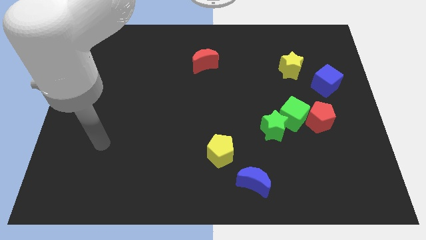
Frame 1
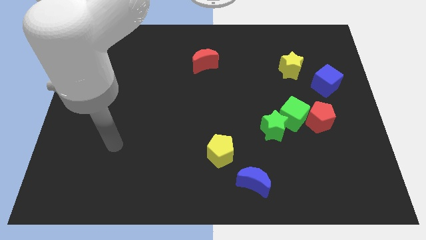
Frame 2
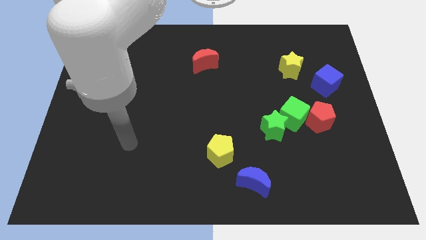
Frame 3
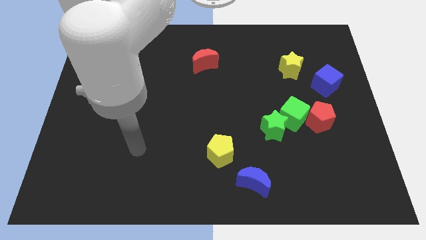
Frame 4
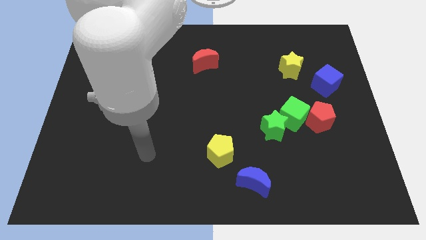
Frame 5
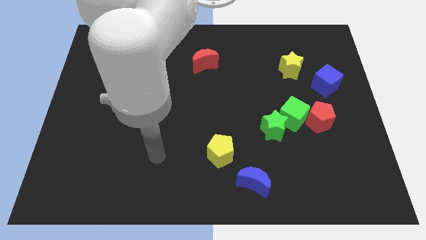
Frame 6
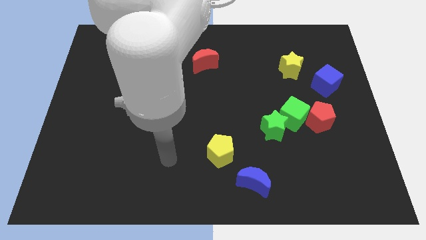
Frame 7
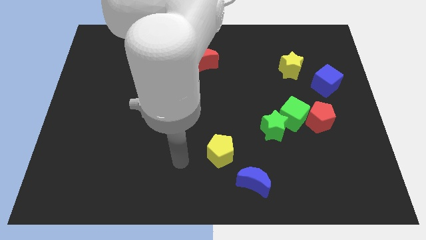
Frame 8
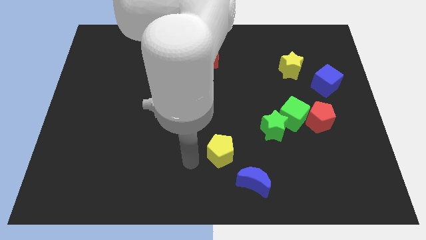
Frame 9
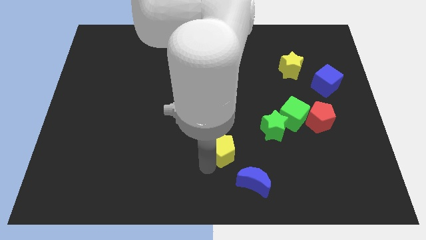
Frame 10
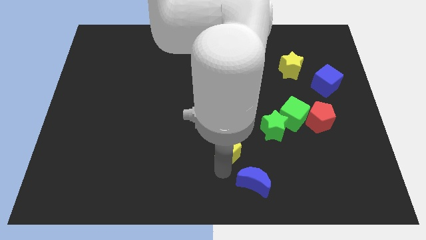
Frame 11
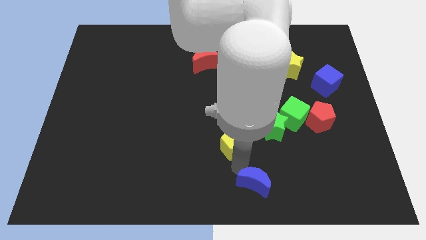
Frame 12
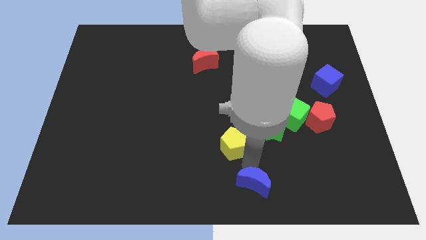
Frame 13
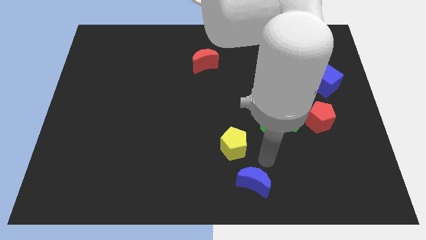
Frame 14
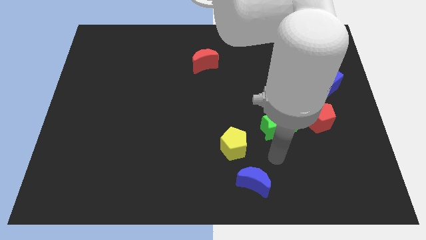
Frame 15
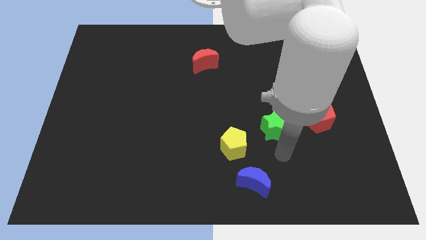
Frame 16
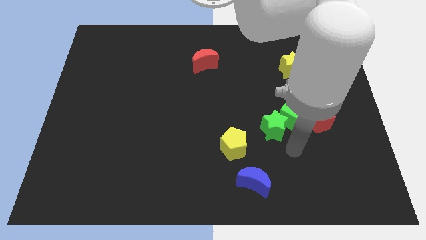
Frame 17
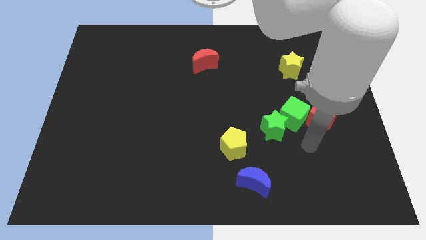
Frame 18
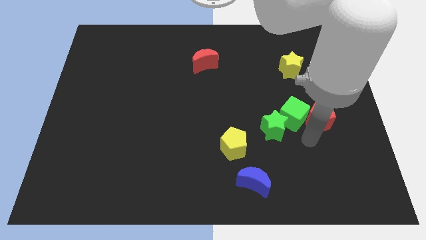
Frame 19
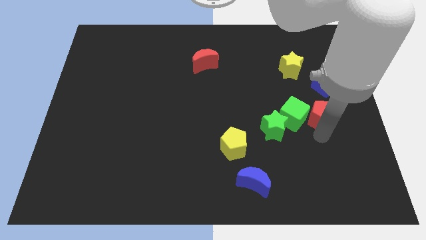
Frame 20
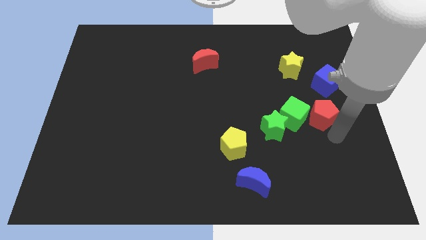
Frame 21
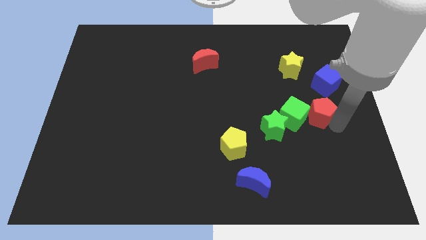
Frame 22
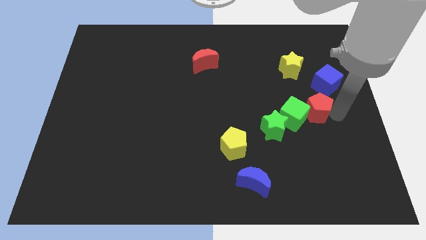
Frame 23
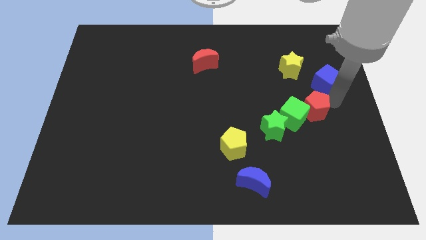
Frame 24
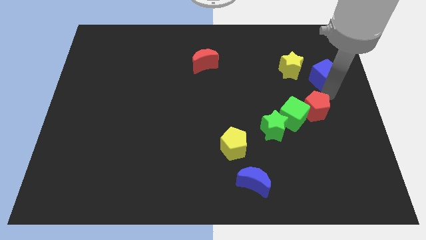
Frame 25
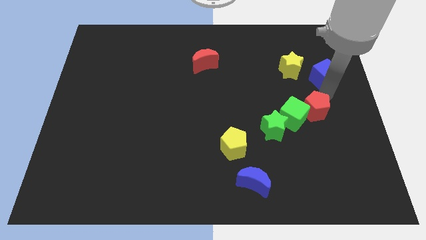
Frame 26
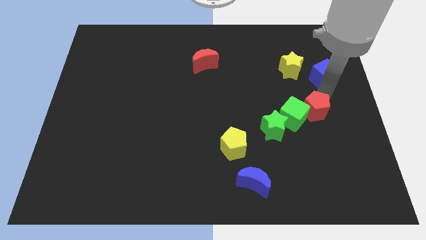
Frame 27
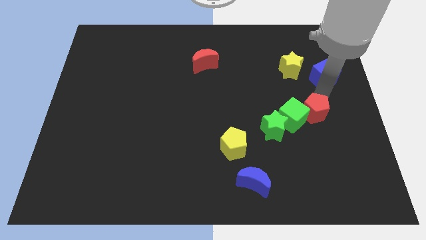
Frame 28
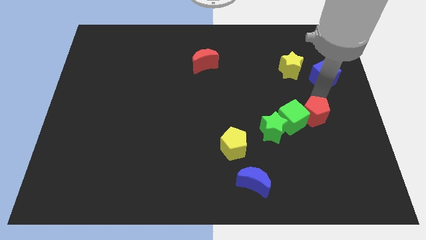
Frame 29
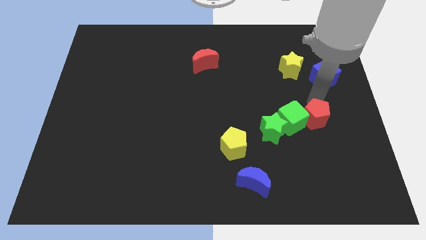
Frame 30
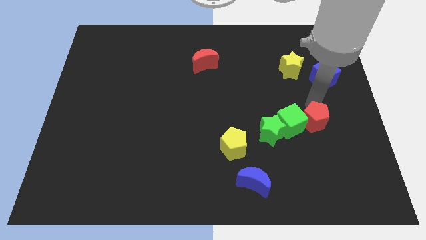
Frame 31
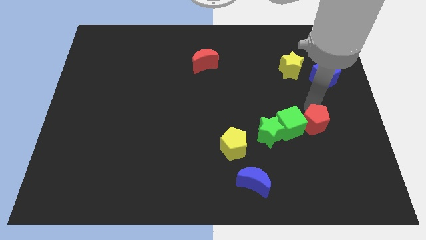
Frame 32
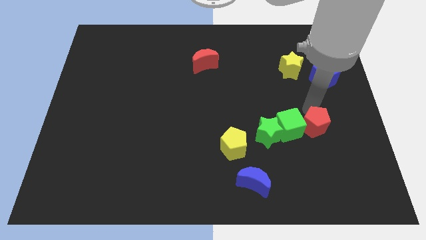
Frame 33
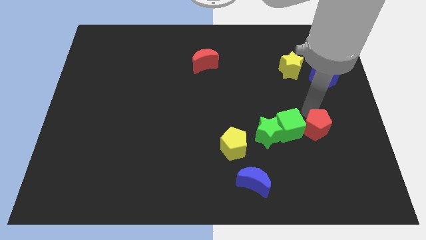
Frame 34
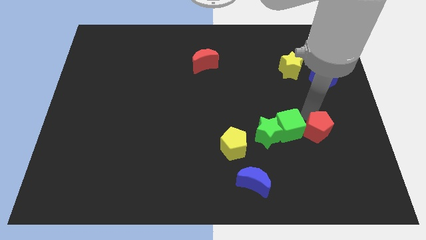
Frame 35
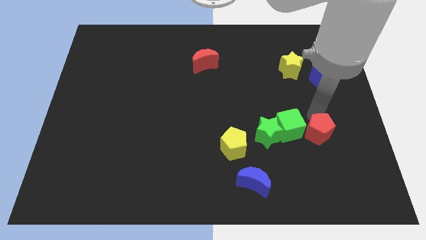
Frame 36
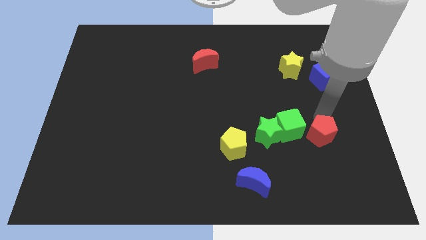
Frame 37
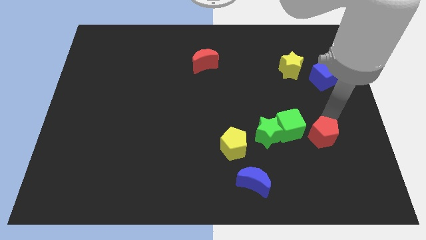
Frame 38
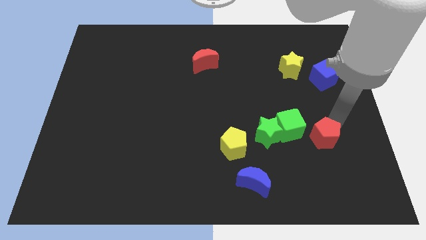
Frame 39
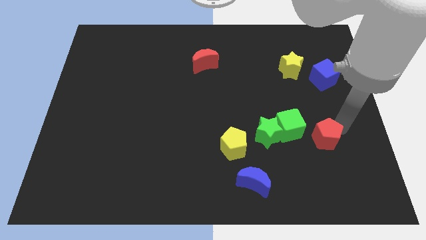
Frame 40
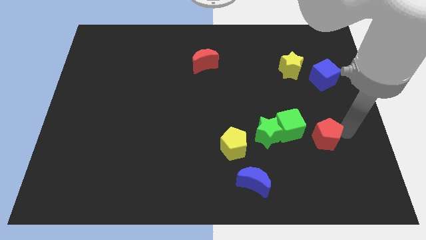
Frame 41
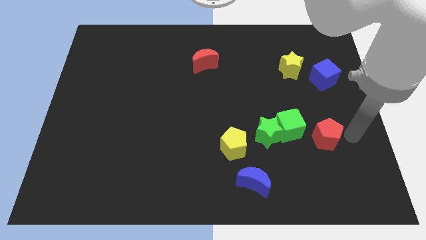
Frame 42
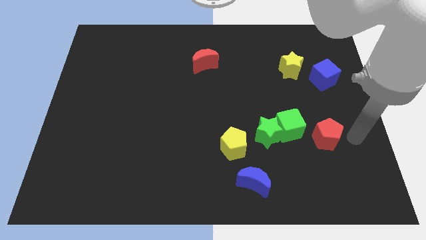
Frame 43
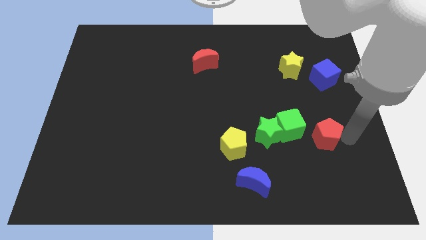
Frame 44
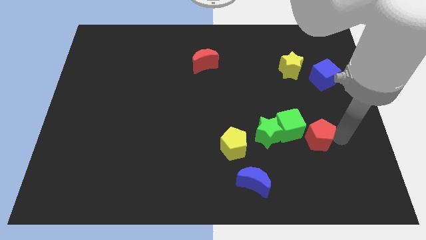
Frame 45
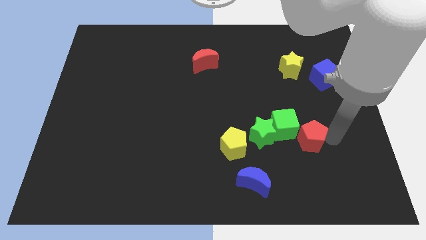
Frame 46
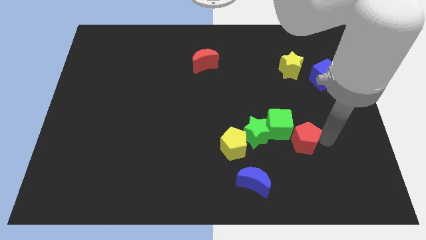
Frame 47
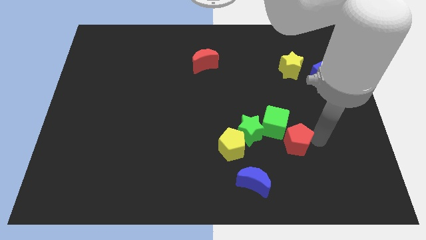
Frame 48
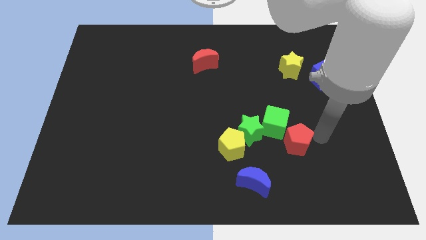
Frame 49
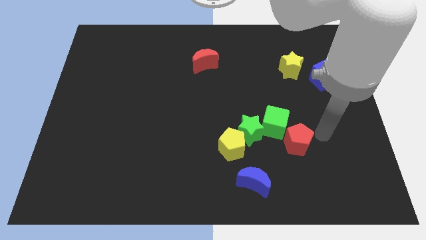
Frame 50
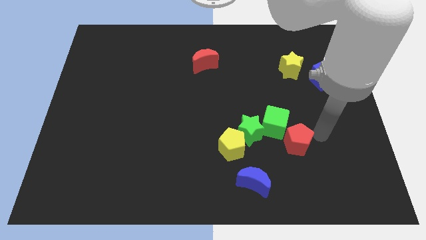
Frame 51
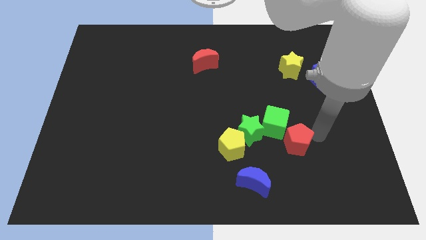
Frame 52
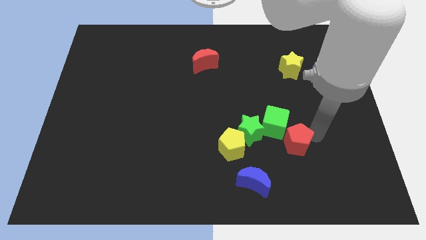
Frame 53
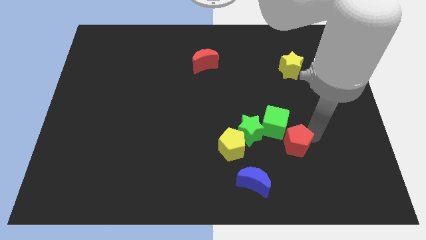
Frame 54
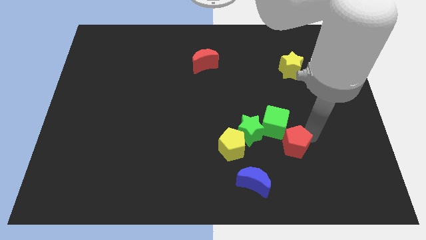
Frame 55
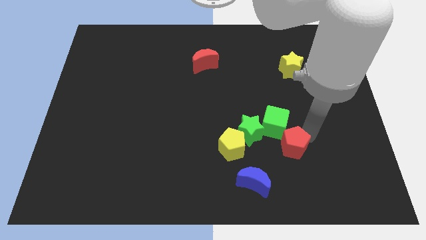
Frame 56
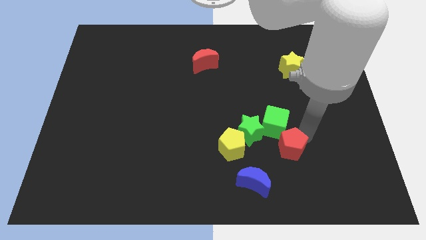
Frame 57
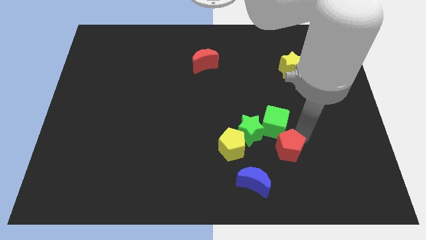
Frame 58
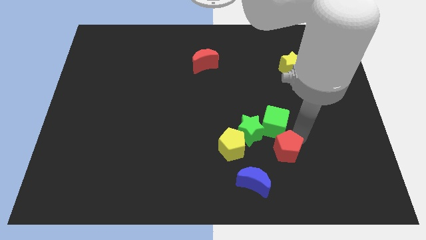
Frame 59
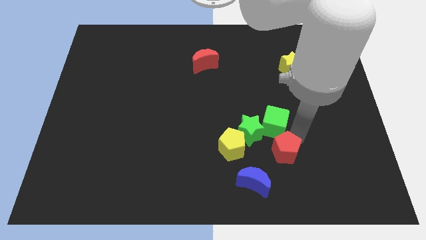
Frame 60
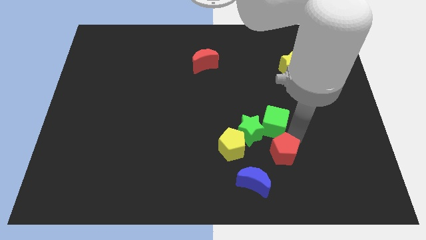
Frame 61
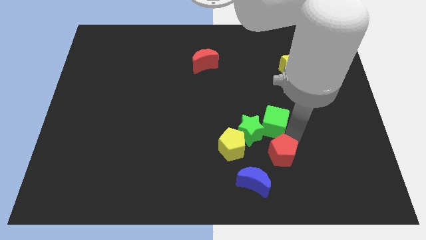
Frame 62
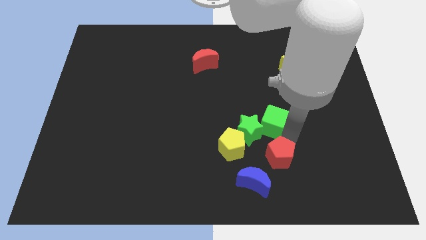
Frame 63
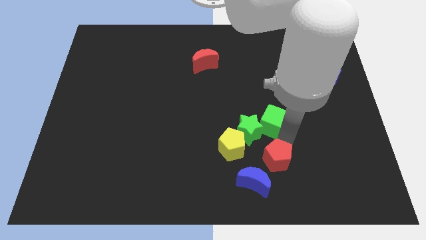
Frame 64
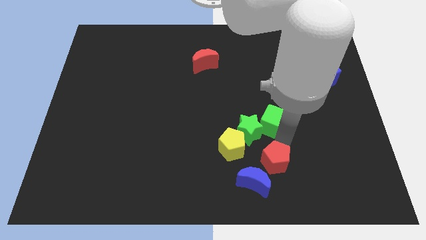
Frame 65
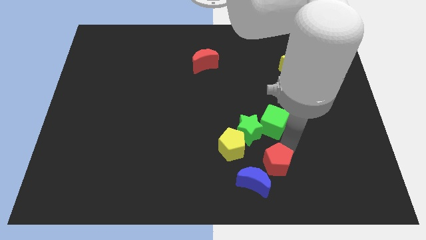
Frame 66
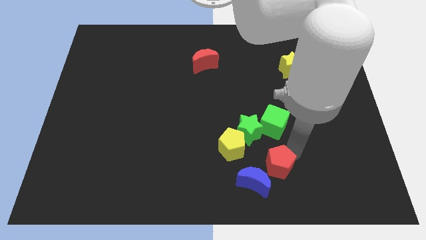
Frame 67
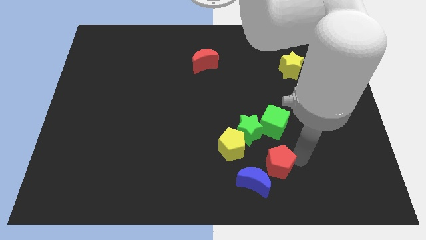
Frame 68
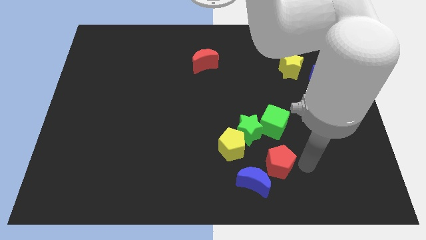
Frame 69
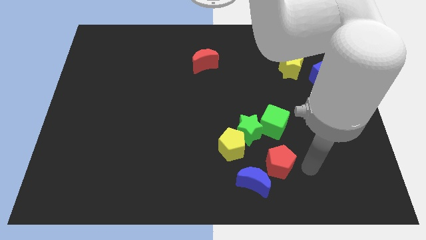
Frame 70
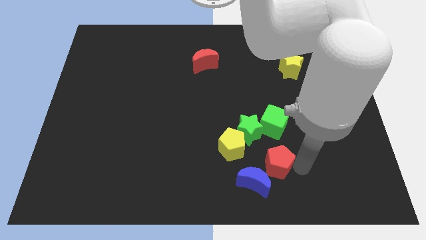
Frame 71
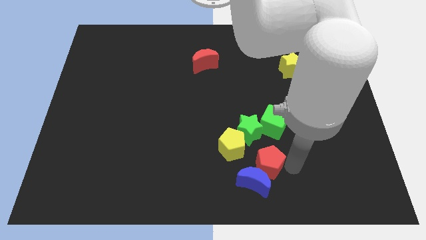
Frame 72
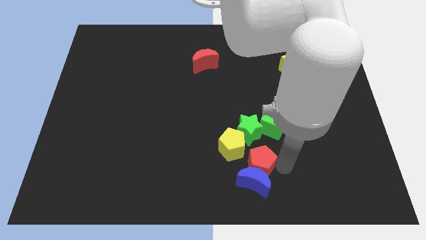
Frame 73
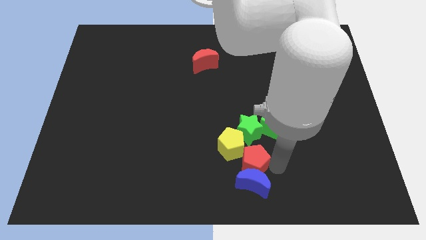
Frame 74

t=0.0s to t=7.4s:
push the red pentagon to the bottom side
